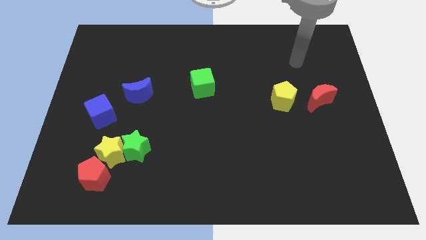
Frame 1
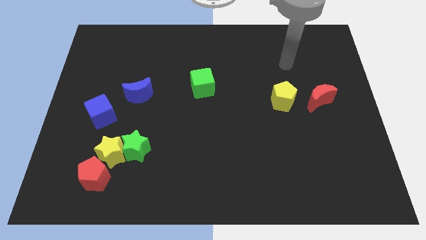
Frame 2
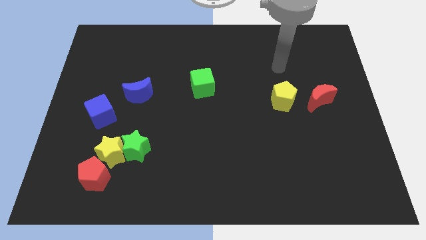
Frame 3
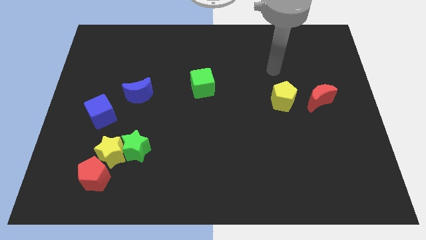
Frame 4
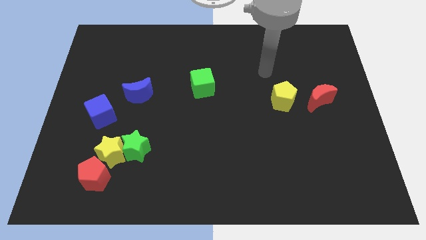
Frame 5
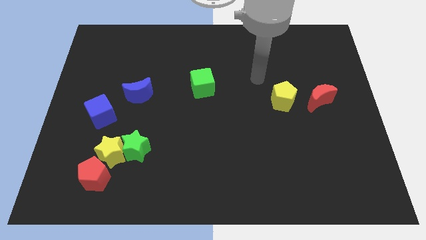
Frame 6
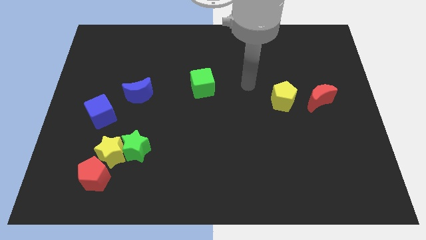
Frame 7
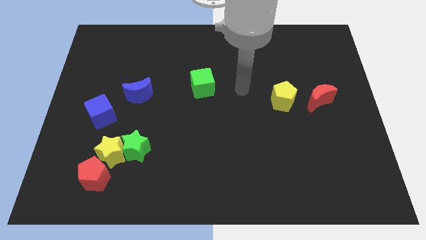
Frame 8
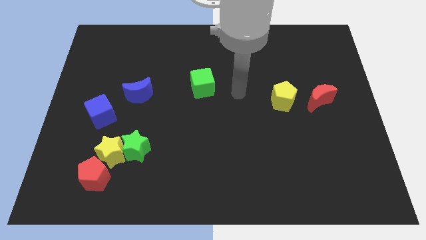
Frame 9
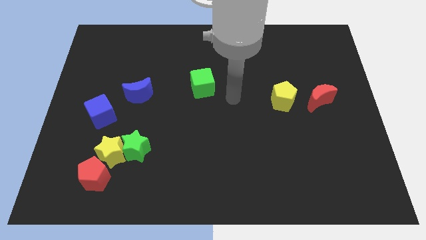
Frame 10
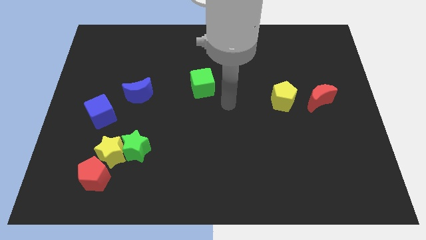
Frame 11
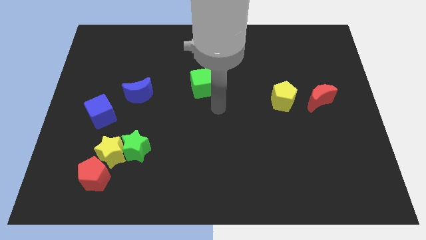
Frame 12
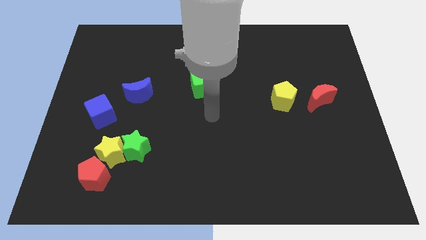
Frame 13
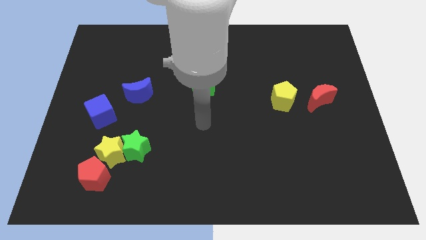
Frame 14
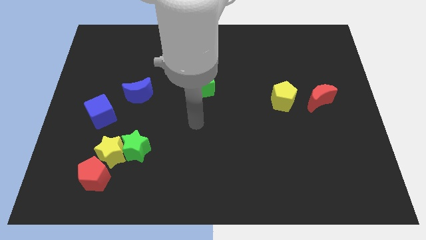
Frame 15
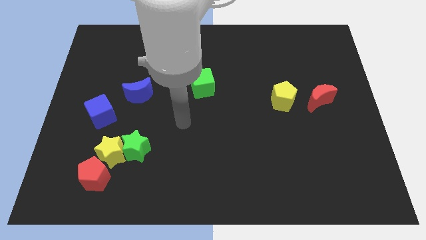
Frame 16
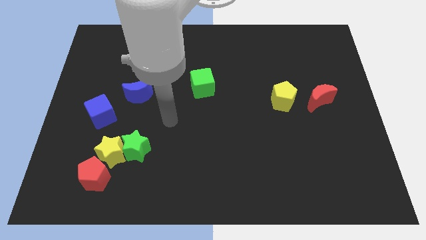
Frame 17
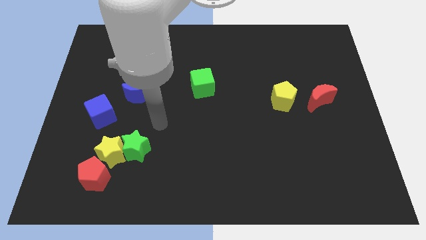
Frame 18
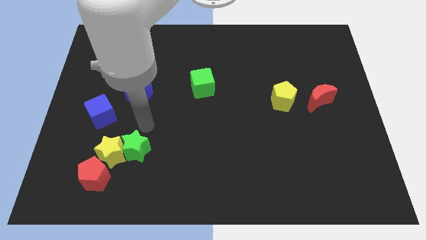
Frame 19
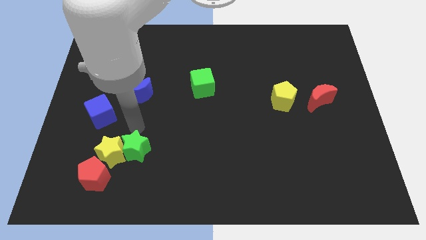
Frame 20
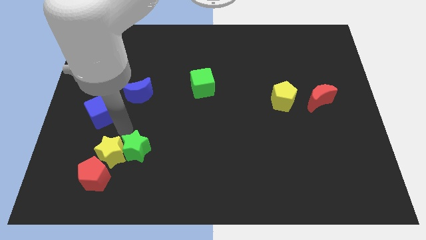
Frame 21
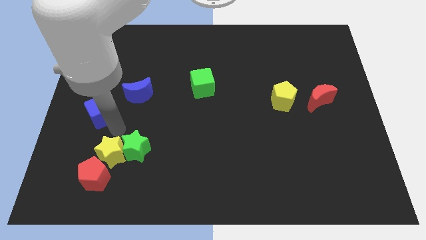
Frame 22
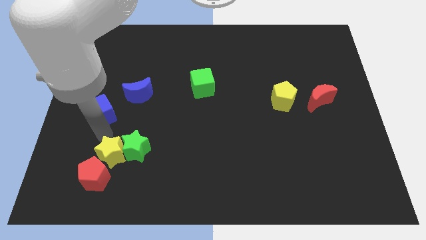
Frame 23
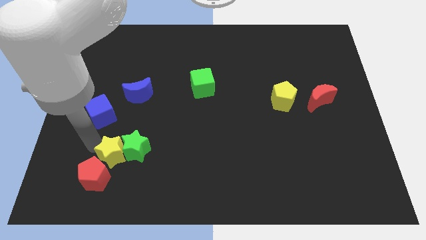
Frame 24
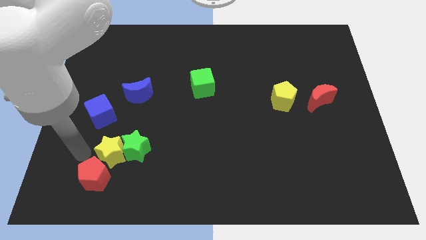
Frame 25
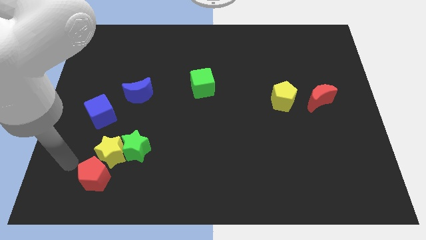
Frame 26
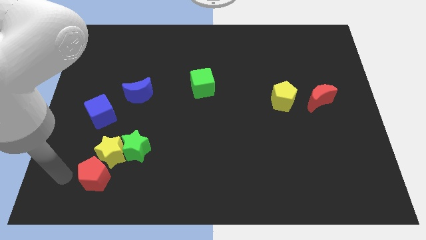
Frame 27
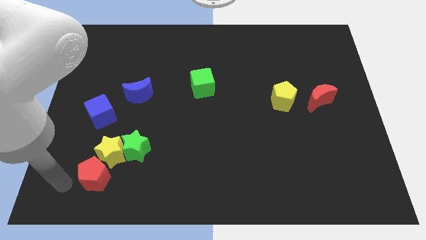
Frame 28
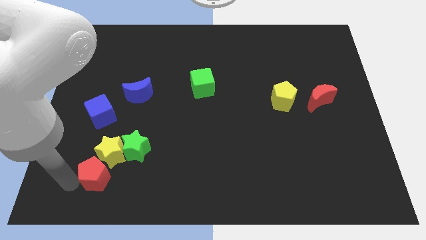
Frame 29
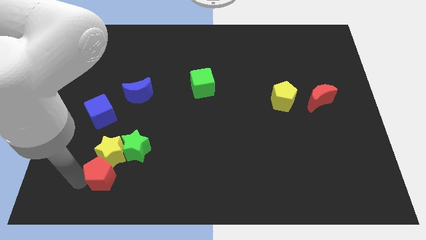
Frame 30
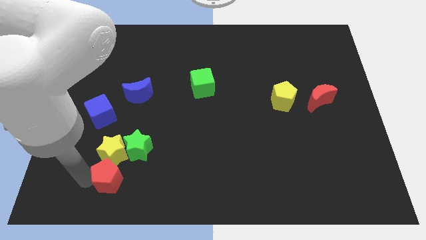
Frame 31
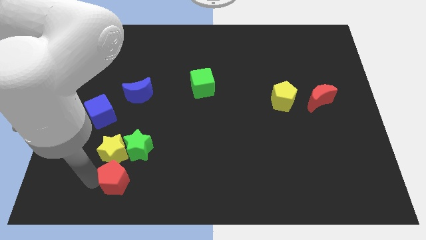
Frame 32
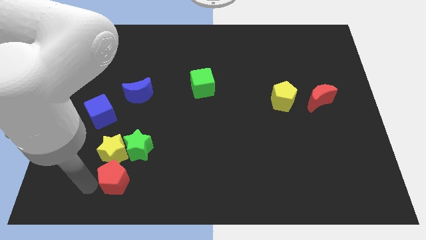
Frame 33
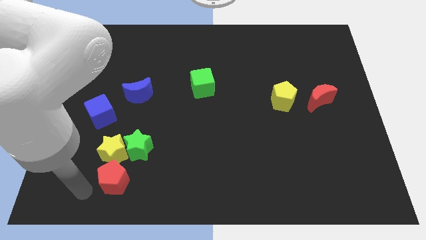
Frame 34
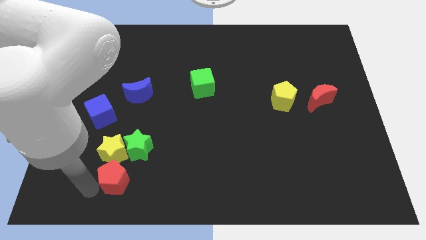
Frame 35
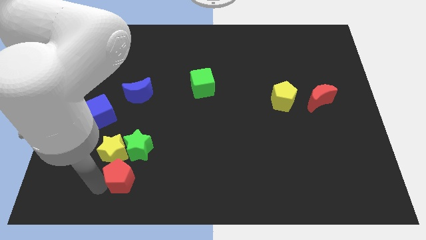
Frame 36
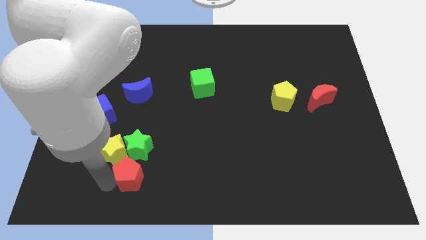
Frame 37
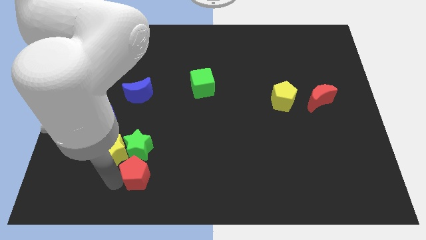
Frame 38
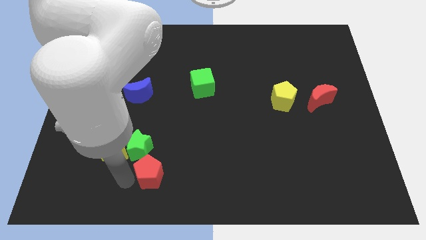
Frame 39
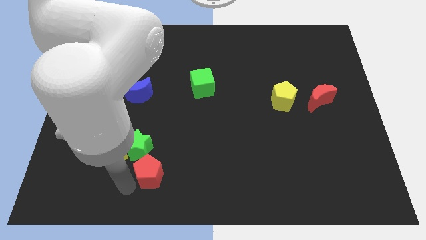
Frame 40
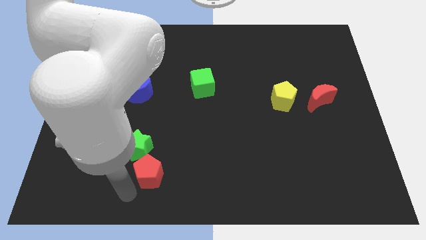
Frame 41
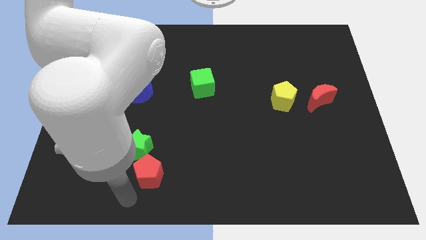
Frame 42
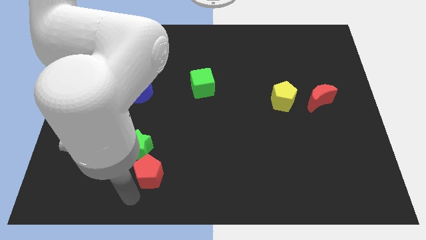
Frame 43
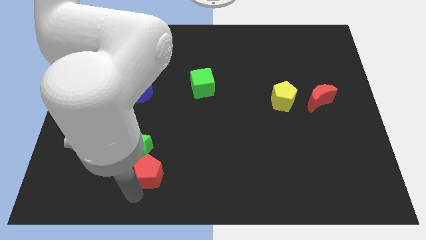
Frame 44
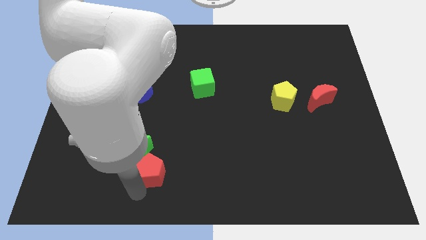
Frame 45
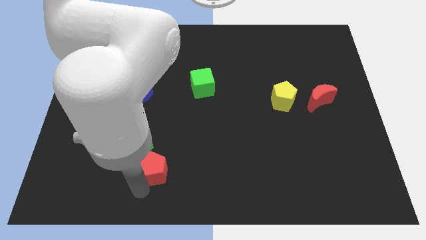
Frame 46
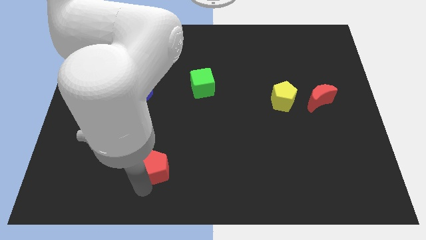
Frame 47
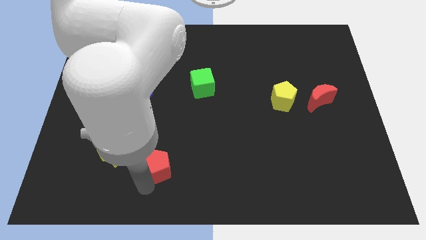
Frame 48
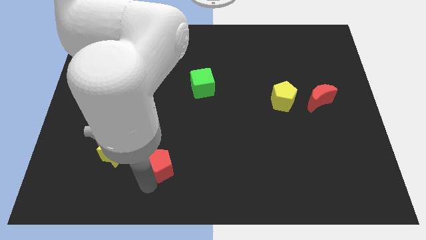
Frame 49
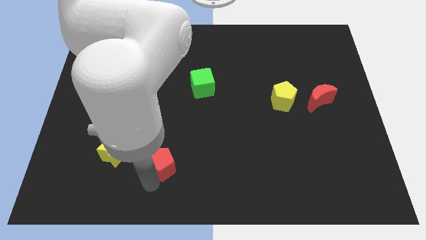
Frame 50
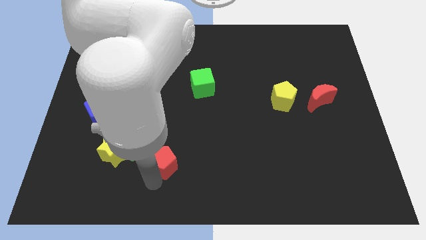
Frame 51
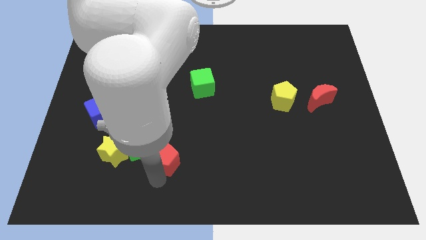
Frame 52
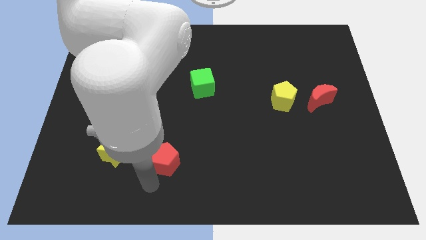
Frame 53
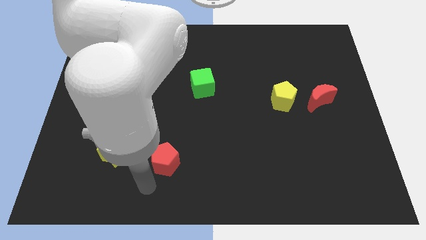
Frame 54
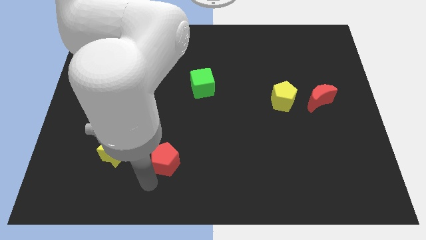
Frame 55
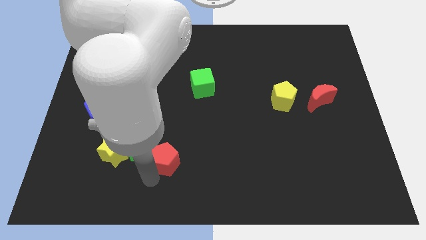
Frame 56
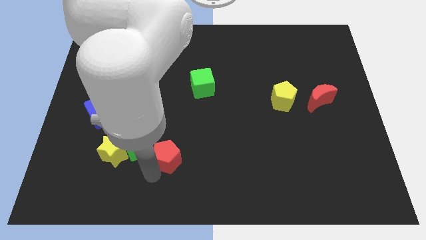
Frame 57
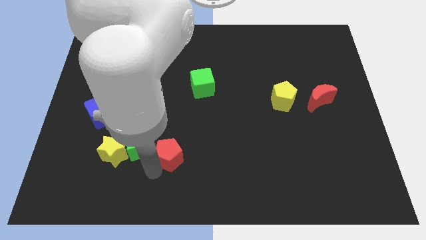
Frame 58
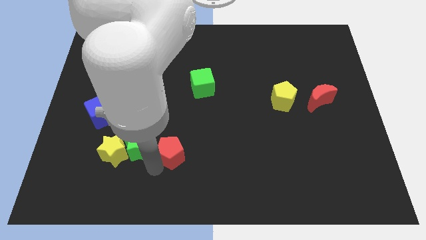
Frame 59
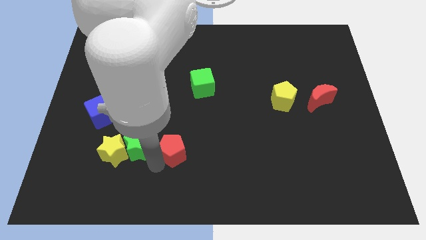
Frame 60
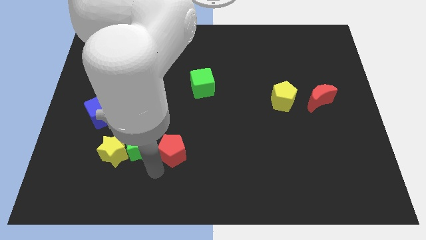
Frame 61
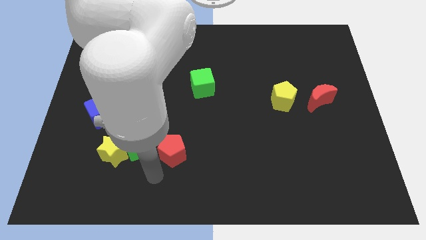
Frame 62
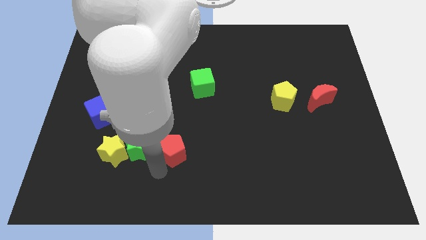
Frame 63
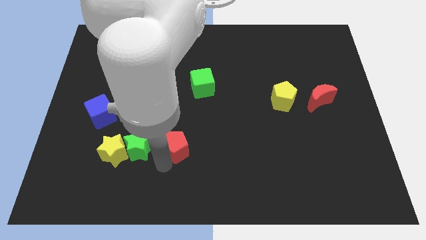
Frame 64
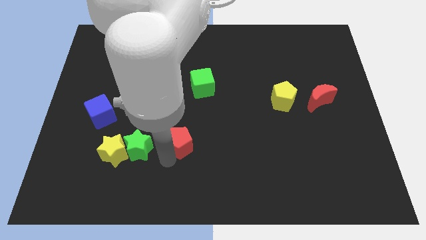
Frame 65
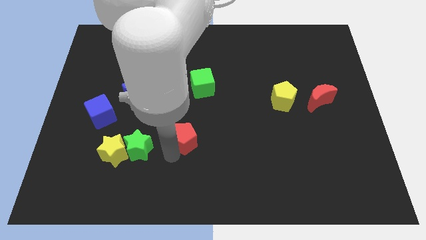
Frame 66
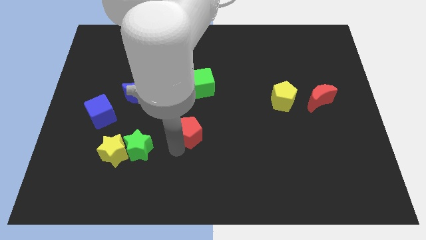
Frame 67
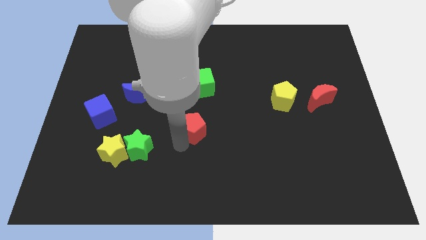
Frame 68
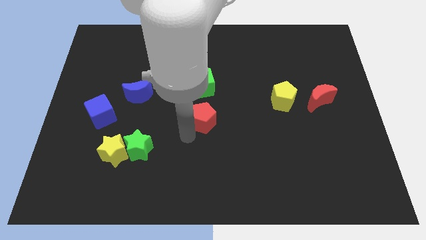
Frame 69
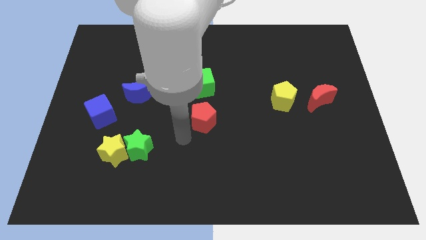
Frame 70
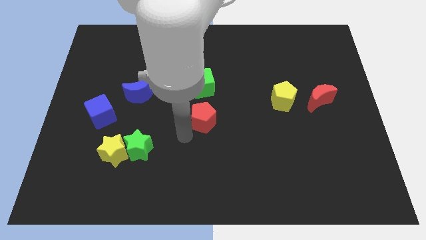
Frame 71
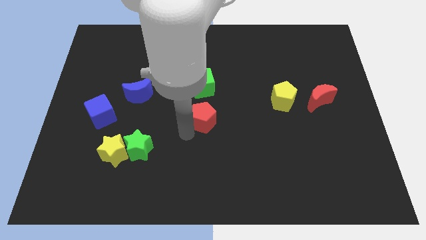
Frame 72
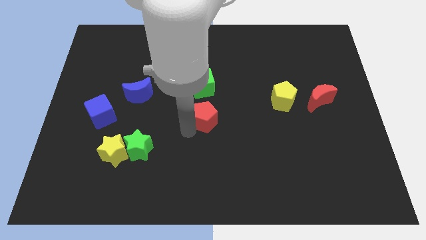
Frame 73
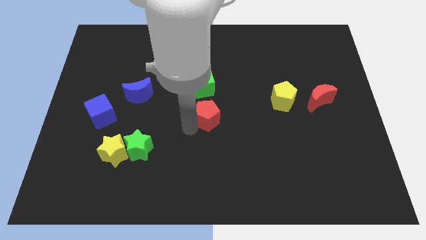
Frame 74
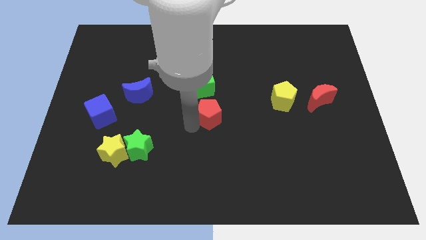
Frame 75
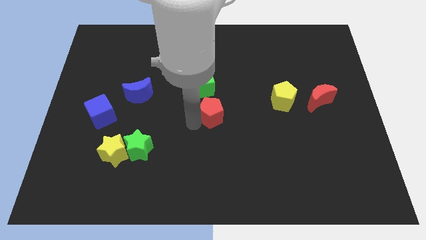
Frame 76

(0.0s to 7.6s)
push the red pentagon diagonally down and to the right of the green cube
